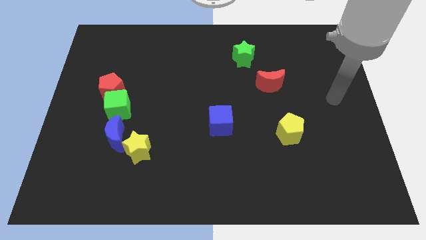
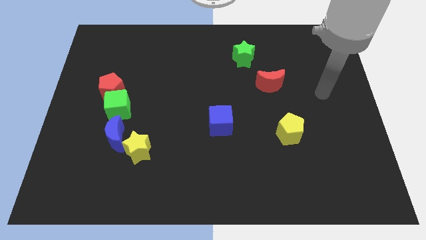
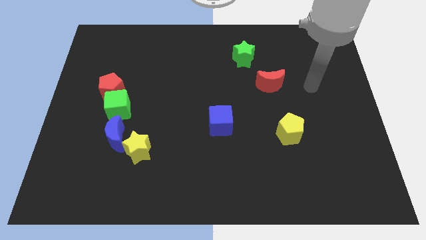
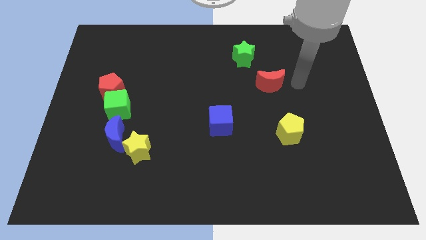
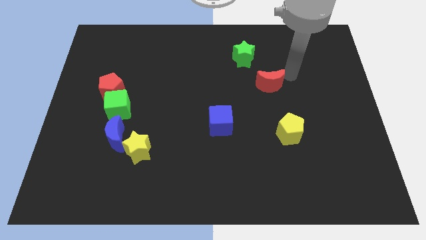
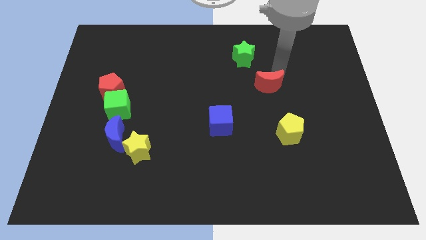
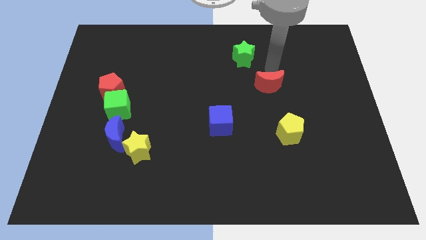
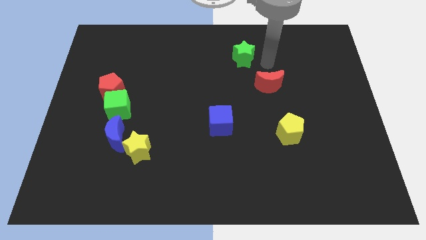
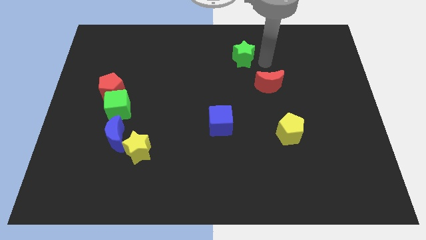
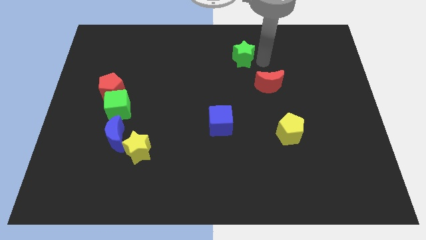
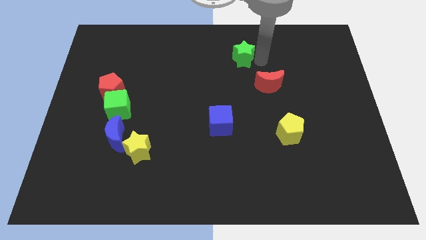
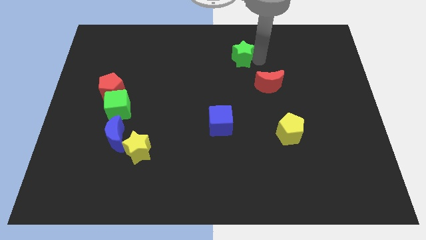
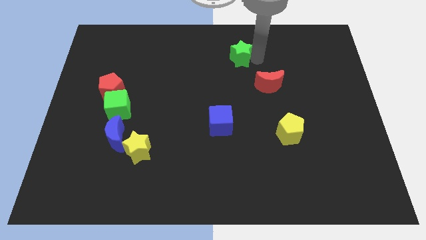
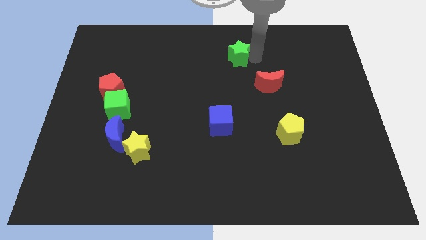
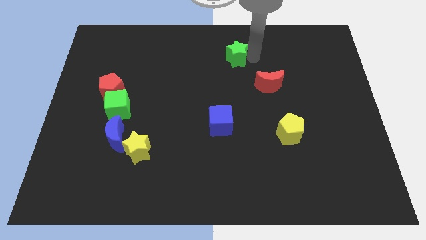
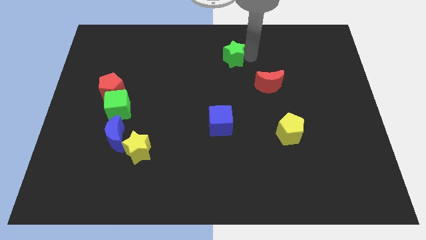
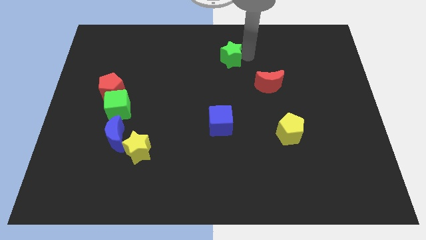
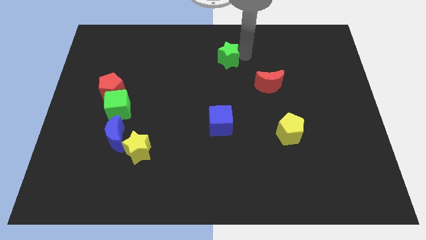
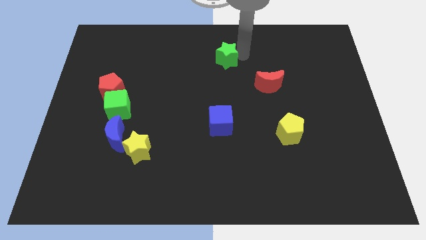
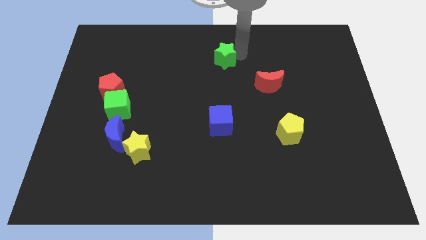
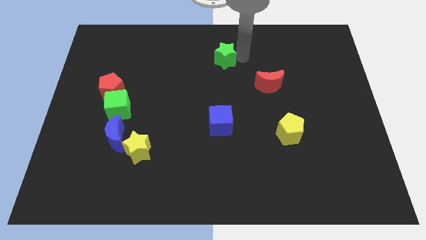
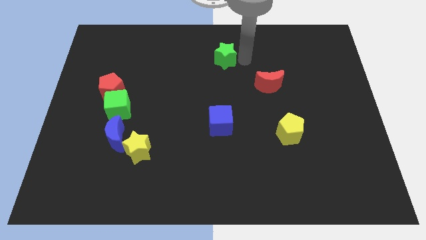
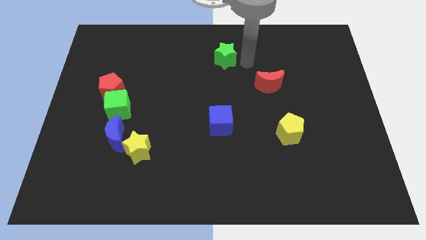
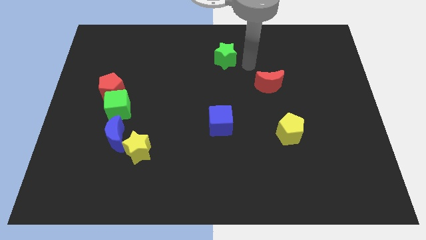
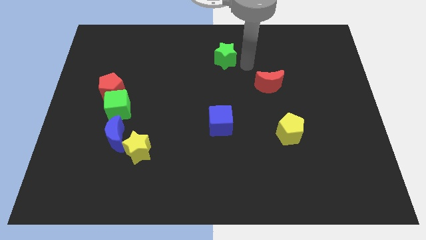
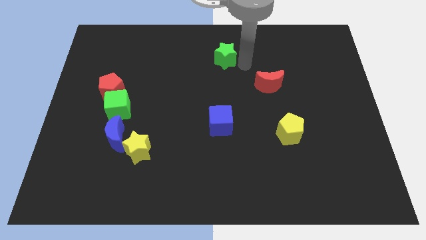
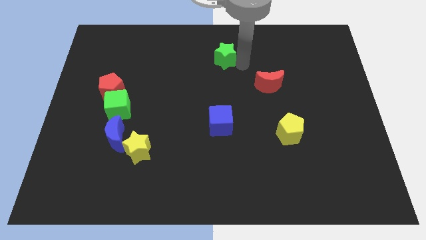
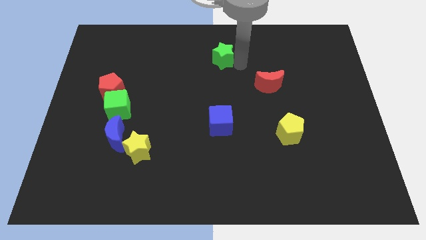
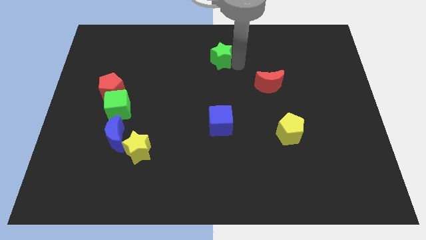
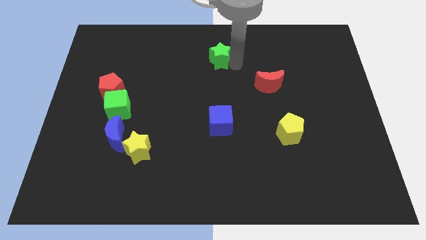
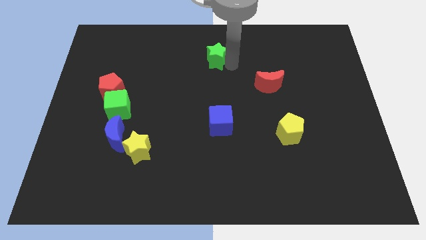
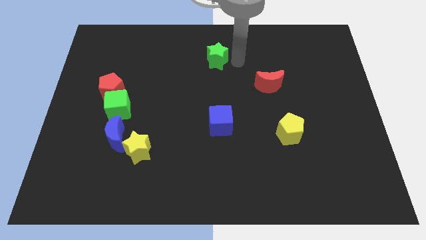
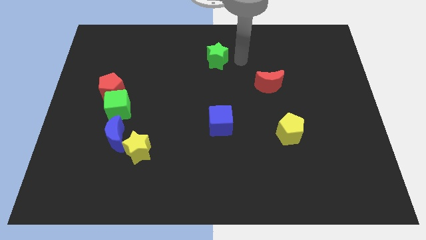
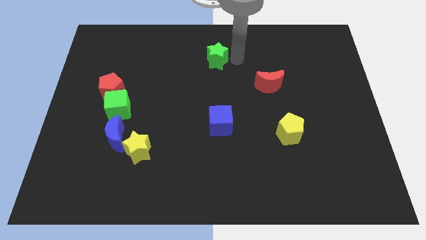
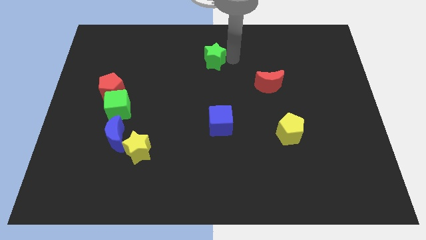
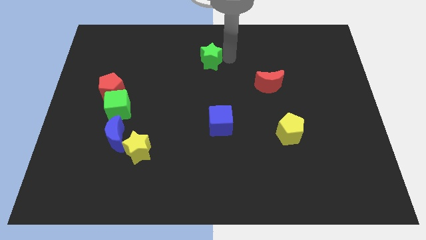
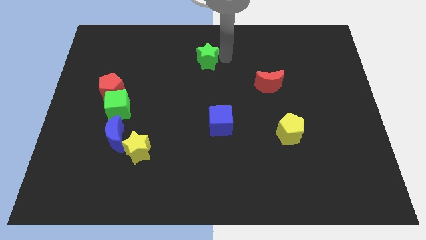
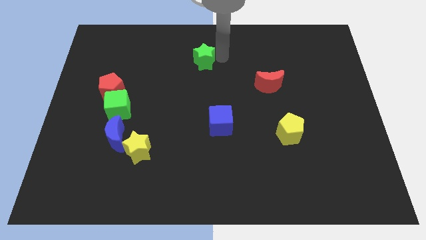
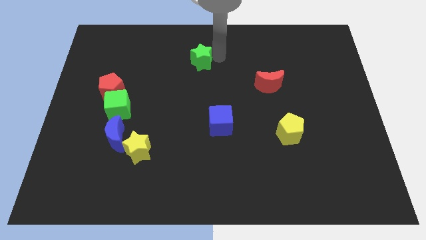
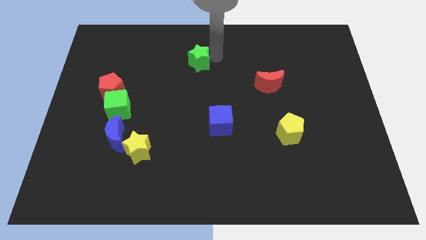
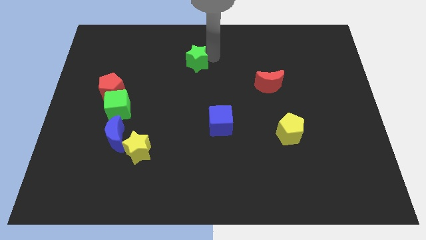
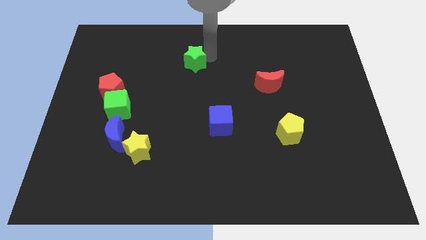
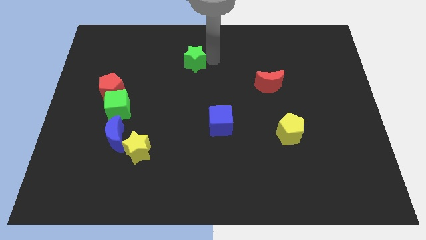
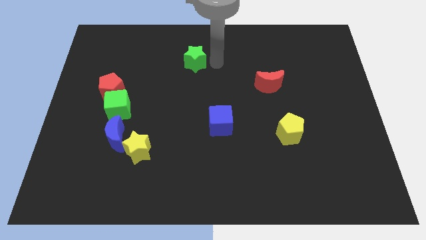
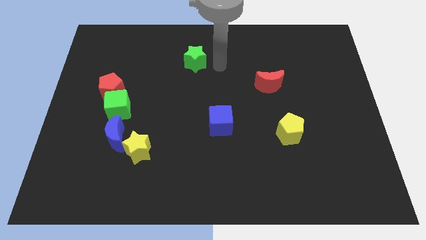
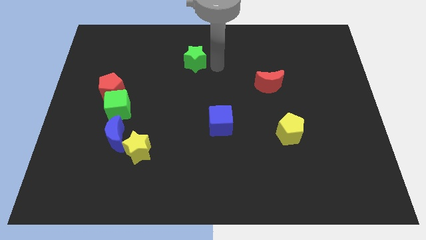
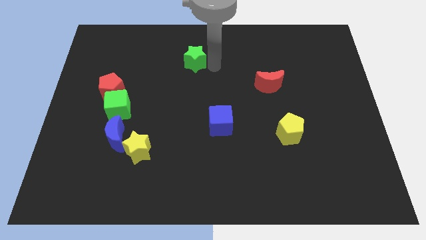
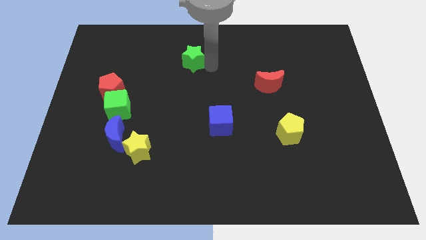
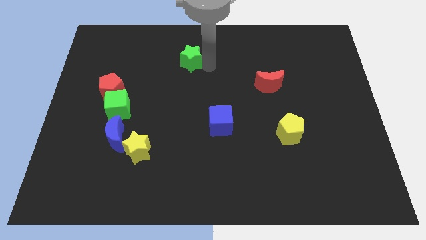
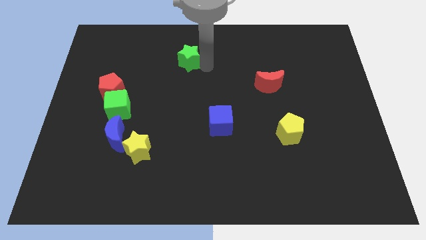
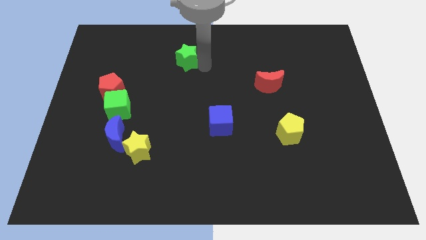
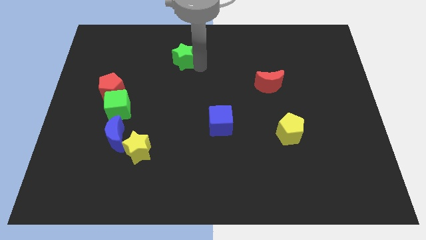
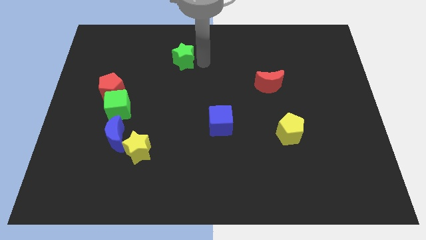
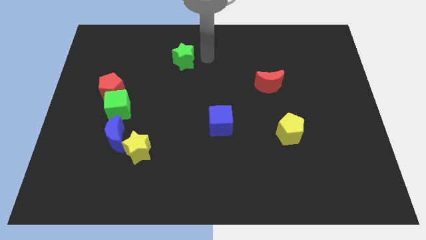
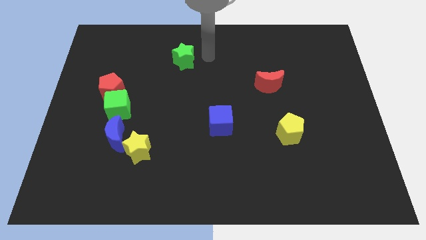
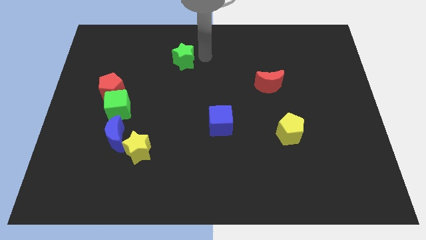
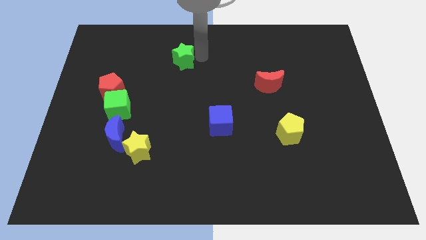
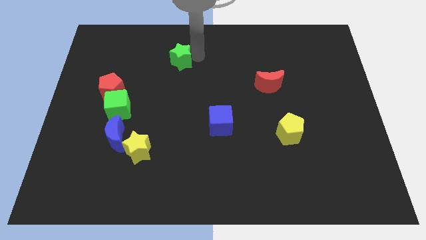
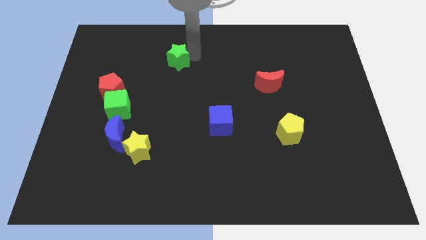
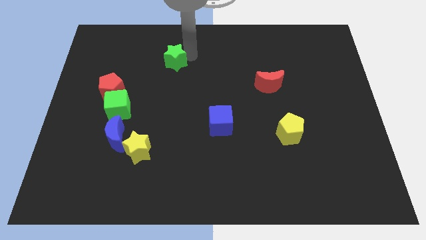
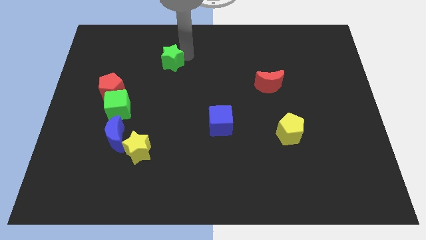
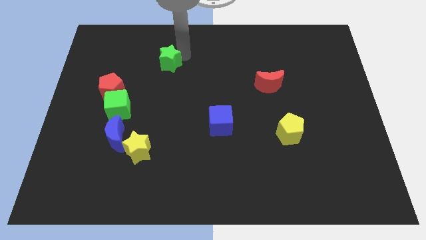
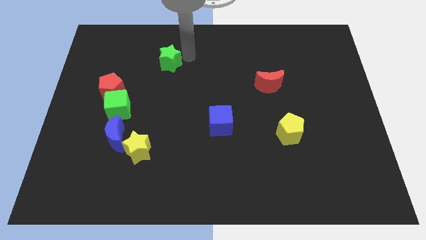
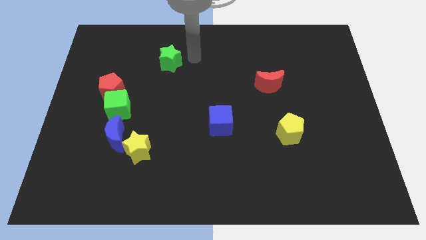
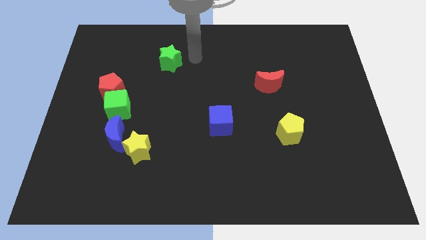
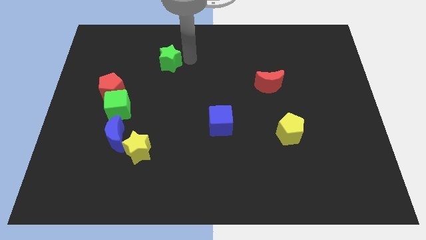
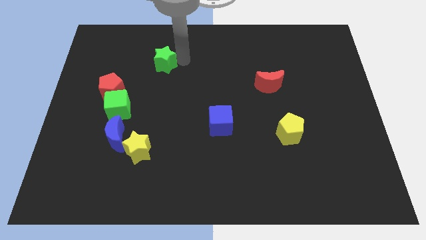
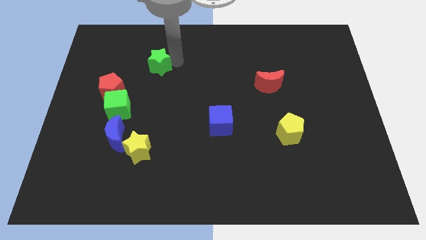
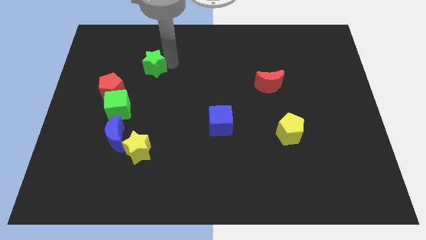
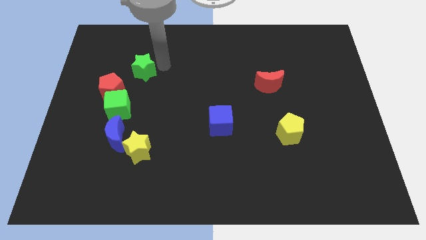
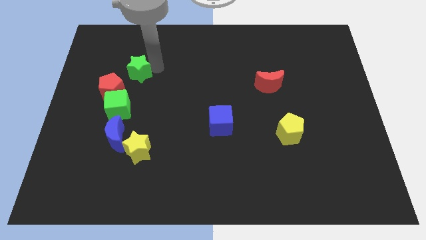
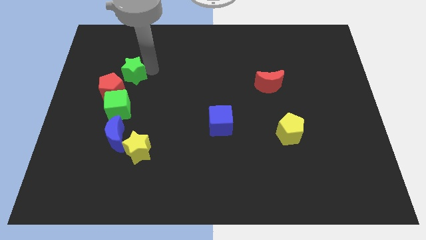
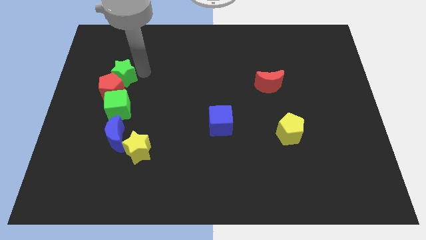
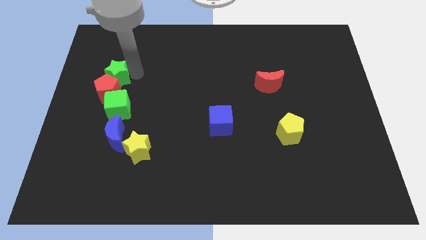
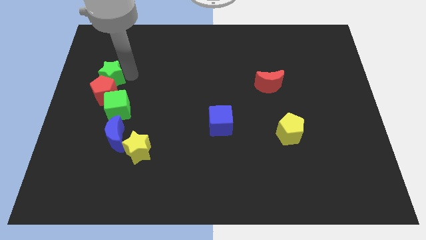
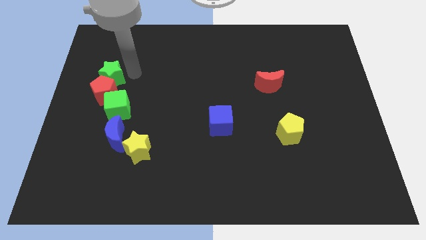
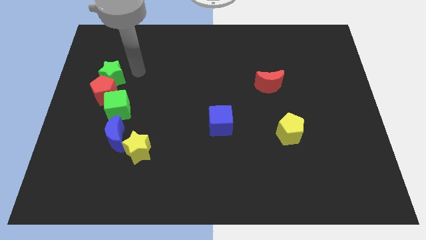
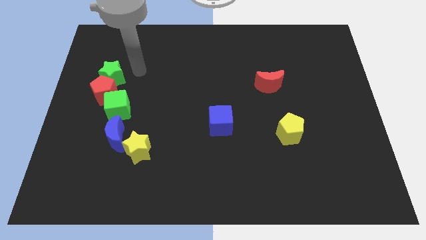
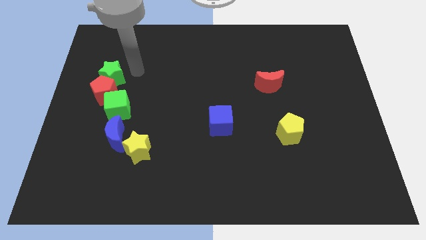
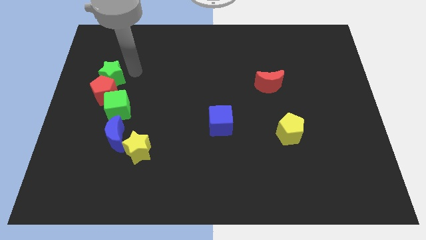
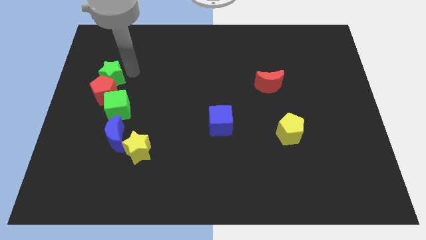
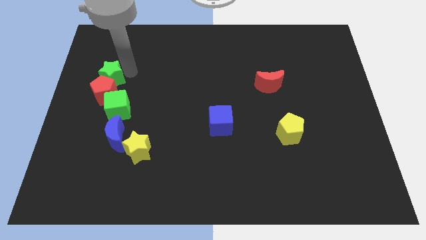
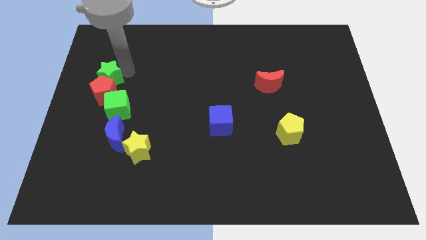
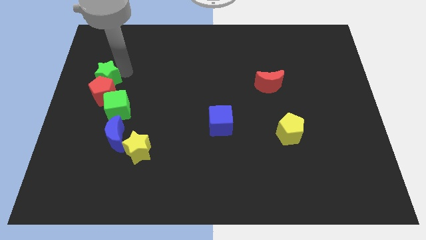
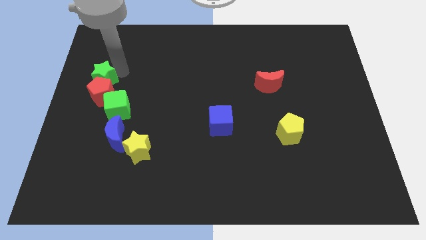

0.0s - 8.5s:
put the green star to the left side
